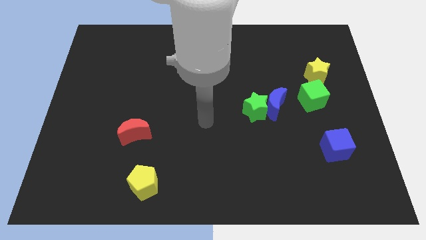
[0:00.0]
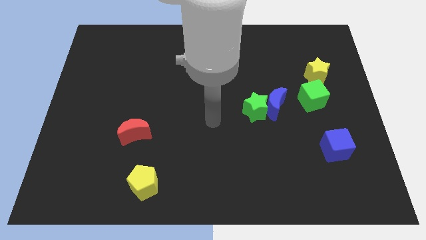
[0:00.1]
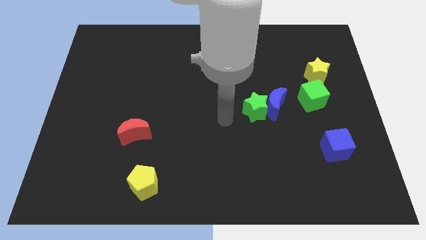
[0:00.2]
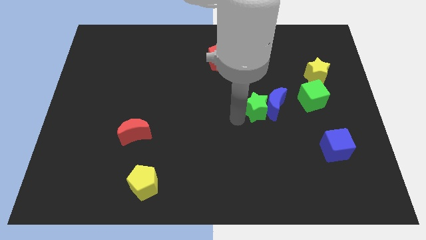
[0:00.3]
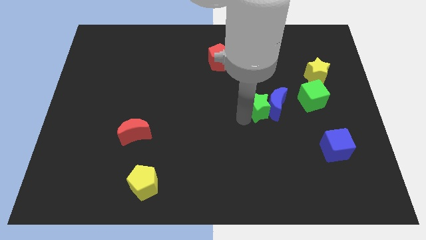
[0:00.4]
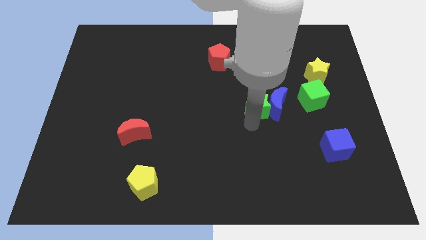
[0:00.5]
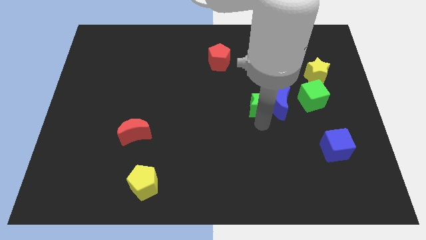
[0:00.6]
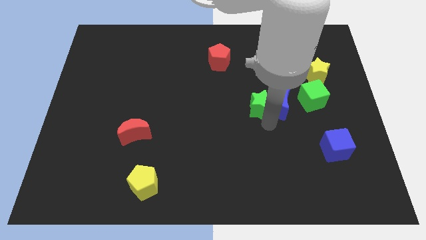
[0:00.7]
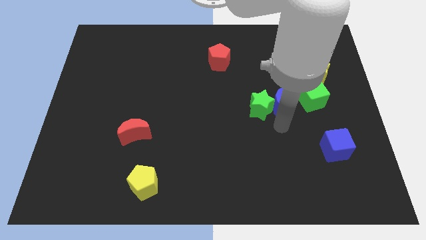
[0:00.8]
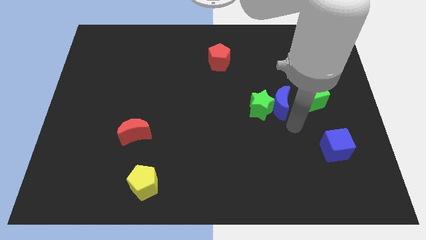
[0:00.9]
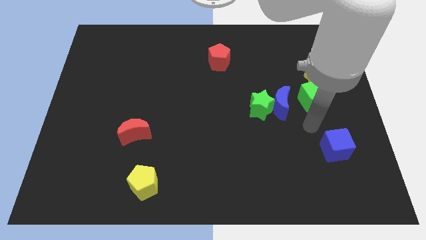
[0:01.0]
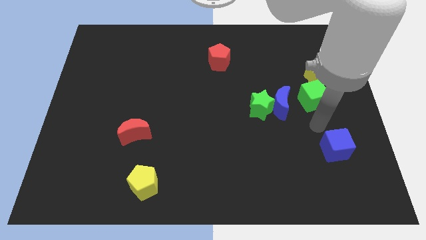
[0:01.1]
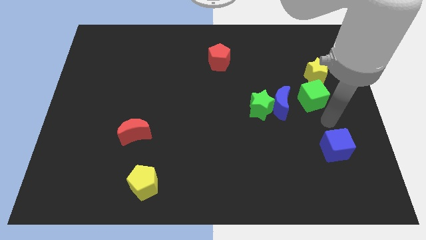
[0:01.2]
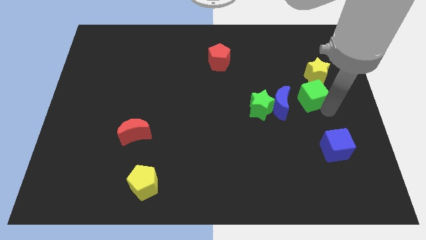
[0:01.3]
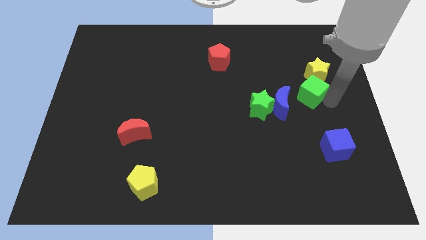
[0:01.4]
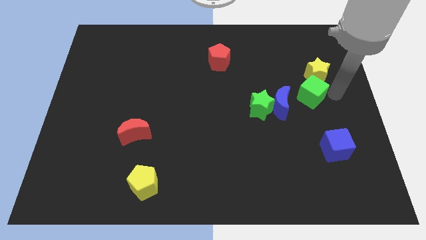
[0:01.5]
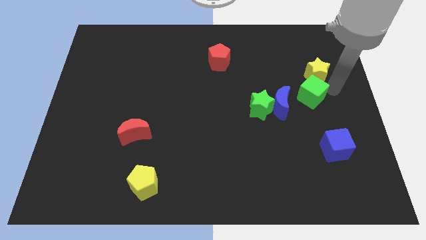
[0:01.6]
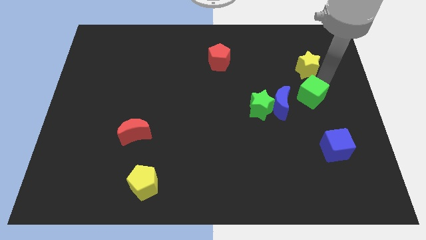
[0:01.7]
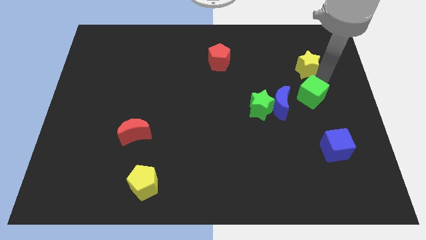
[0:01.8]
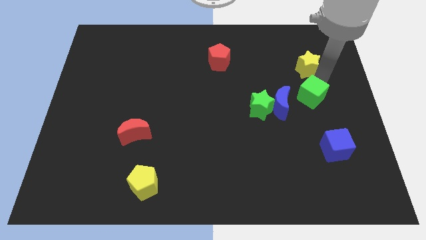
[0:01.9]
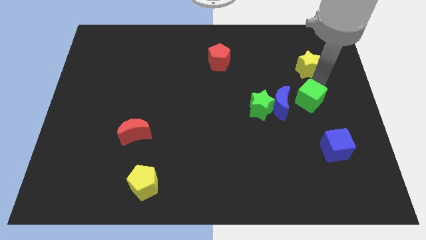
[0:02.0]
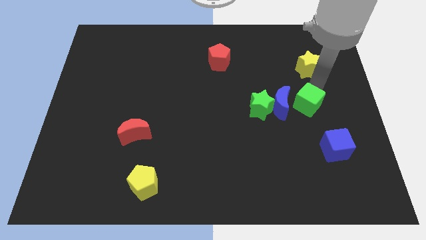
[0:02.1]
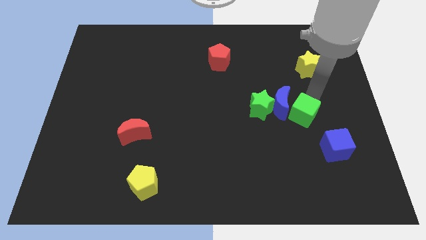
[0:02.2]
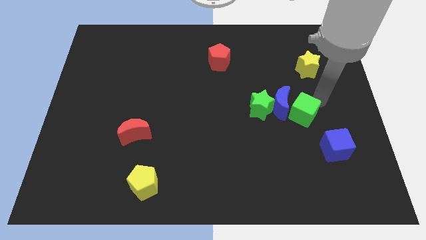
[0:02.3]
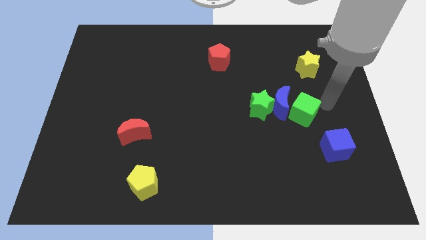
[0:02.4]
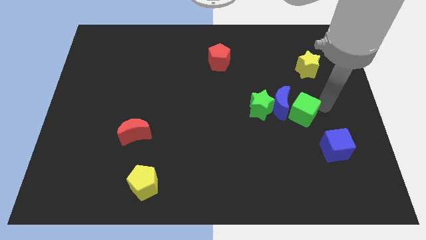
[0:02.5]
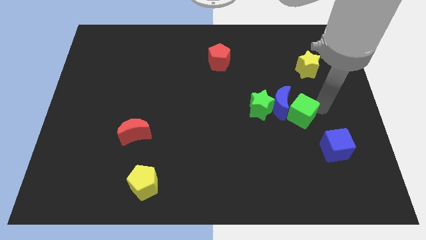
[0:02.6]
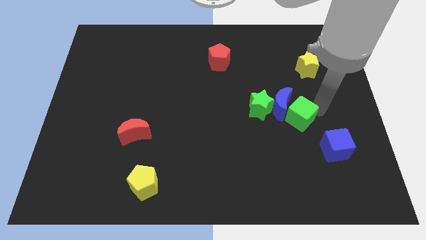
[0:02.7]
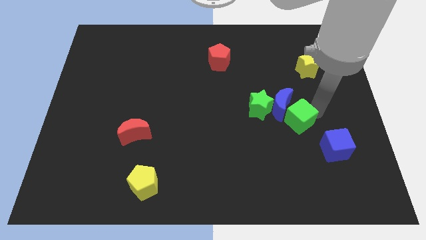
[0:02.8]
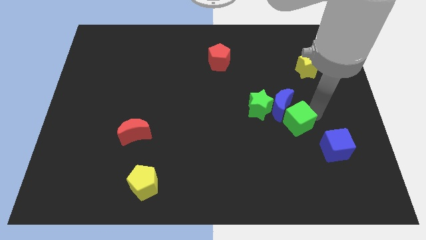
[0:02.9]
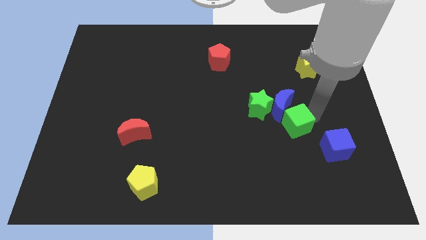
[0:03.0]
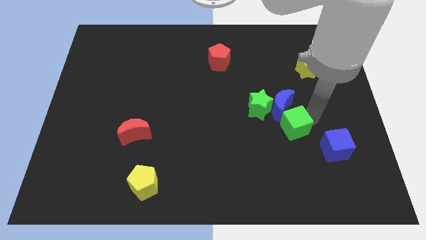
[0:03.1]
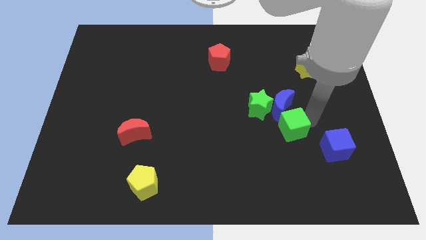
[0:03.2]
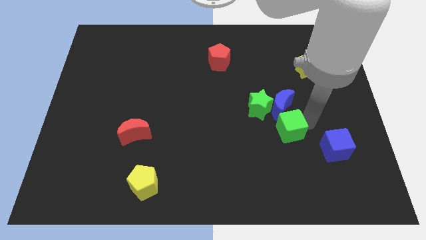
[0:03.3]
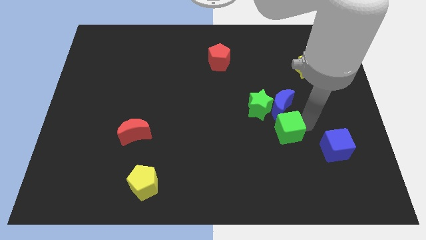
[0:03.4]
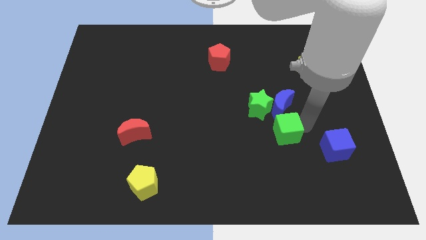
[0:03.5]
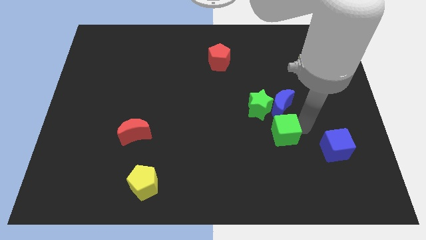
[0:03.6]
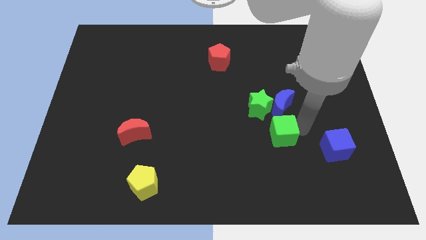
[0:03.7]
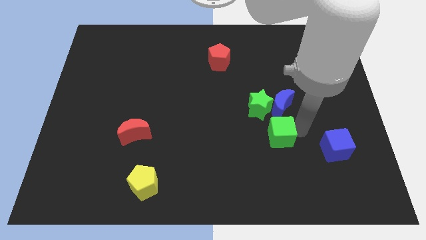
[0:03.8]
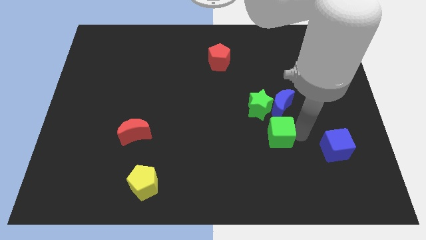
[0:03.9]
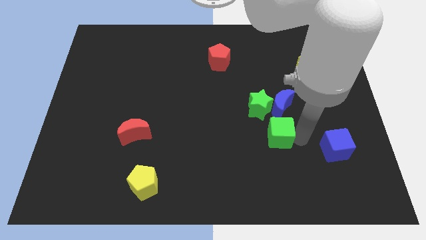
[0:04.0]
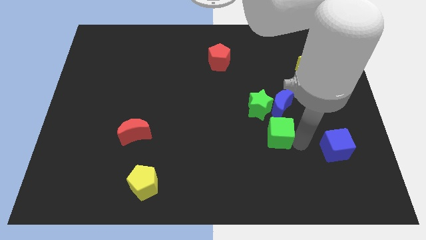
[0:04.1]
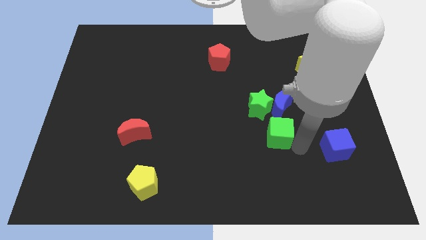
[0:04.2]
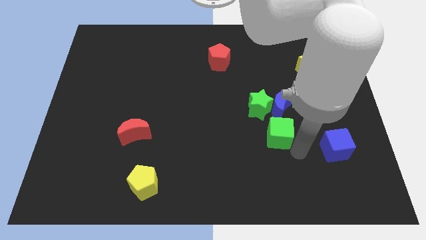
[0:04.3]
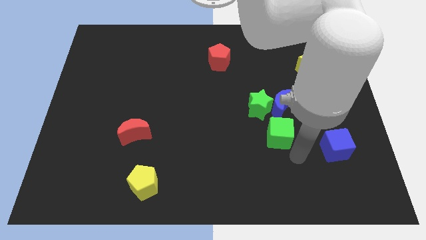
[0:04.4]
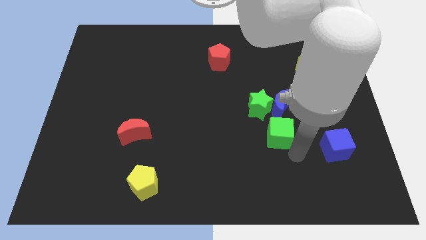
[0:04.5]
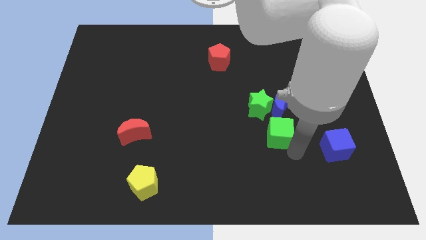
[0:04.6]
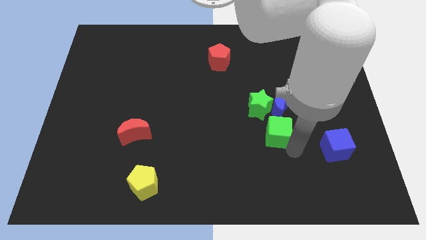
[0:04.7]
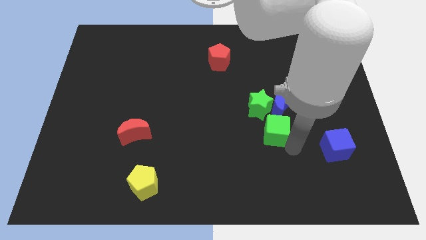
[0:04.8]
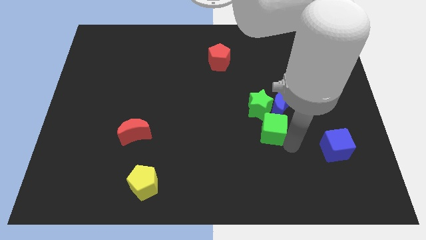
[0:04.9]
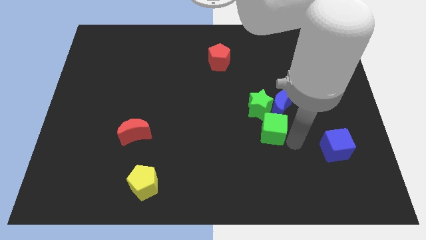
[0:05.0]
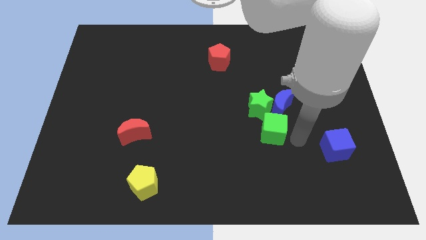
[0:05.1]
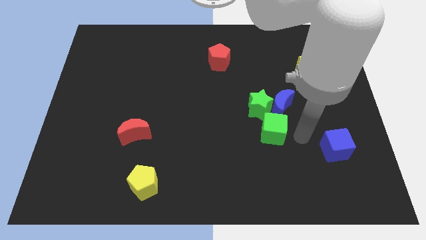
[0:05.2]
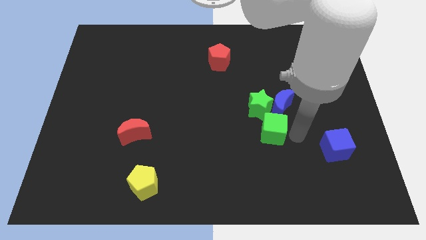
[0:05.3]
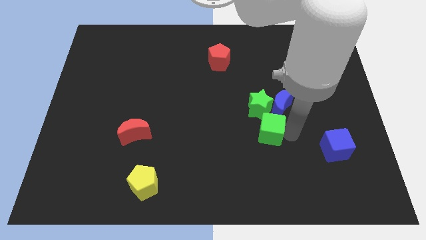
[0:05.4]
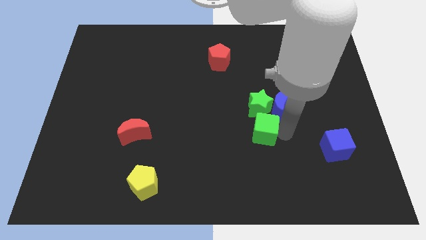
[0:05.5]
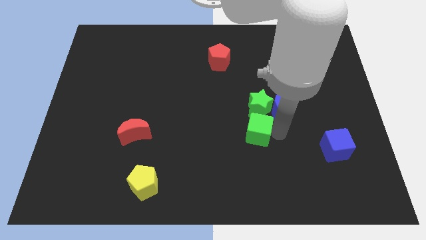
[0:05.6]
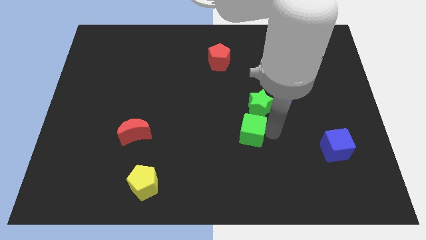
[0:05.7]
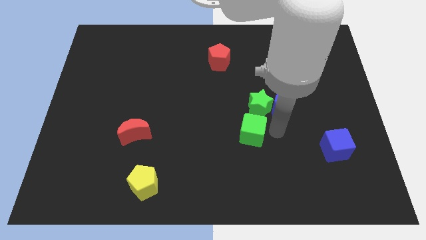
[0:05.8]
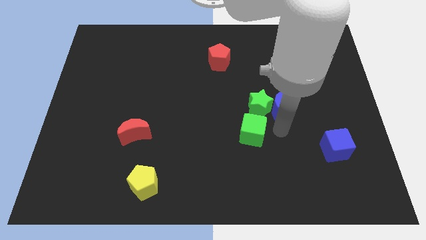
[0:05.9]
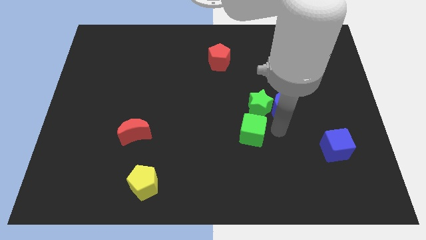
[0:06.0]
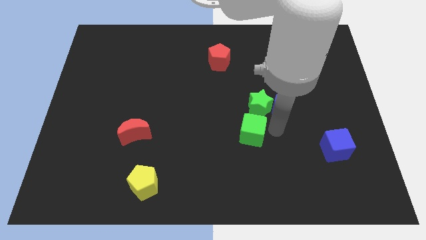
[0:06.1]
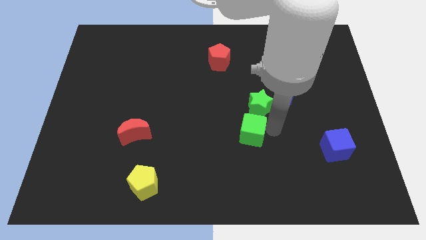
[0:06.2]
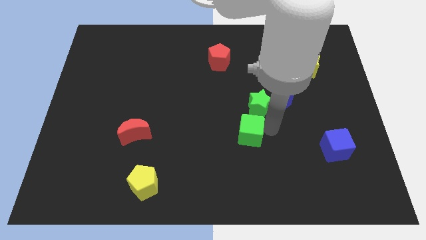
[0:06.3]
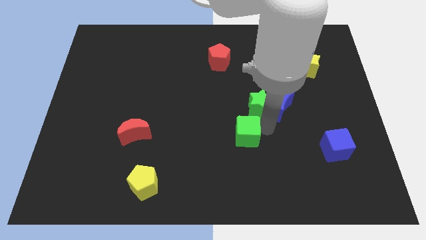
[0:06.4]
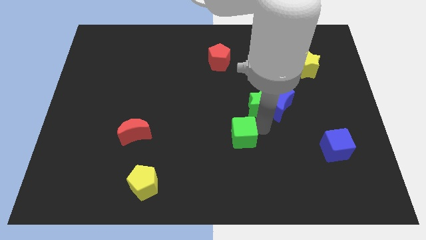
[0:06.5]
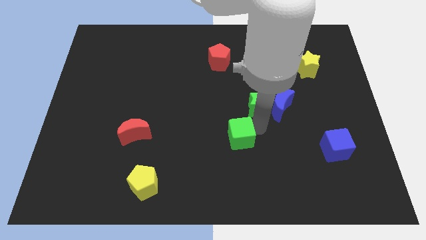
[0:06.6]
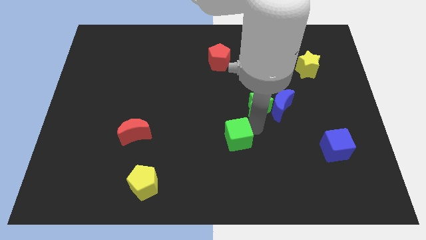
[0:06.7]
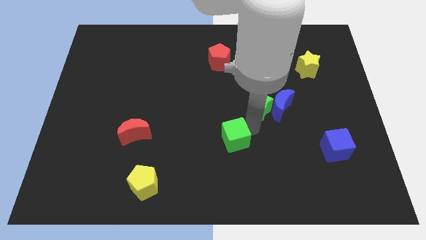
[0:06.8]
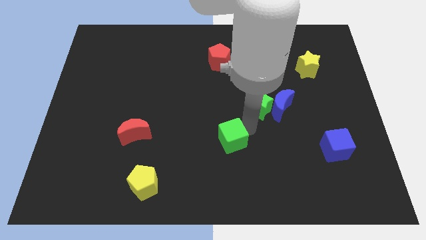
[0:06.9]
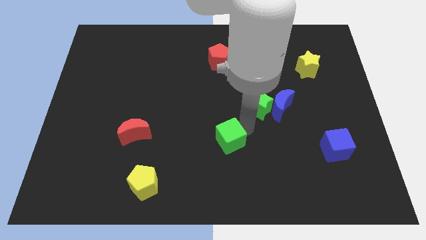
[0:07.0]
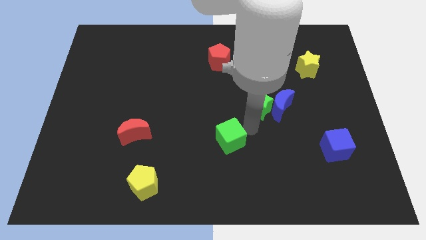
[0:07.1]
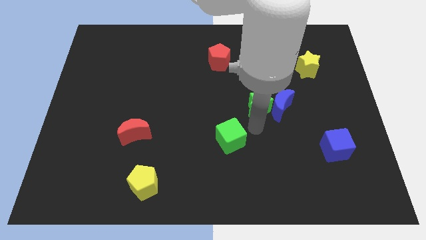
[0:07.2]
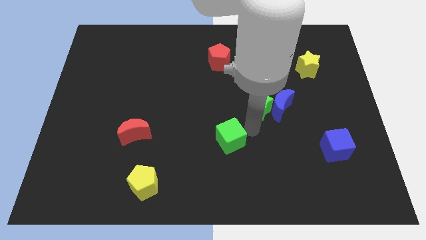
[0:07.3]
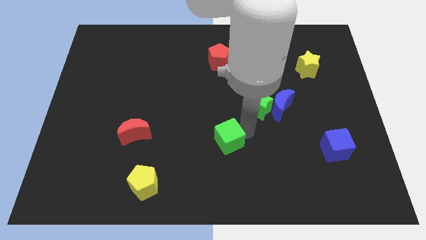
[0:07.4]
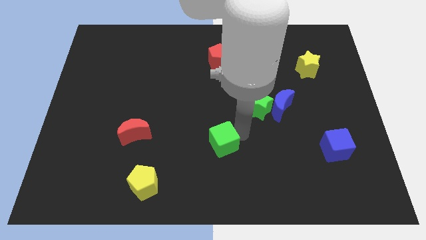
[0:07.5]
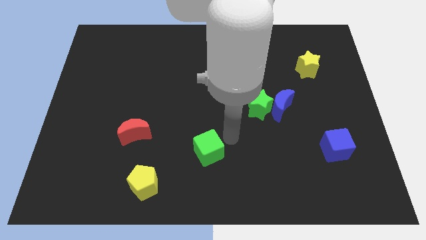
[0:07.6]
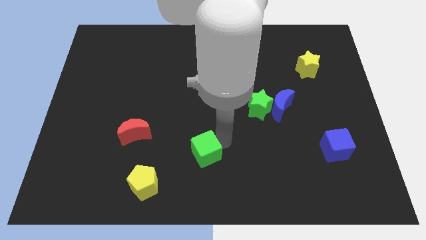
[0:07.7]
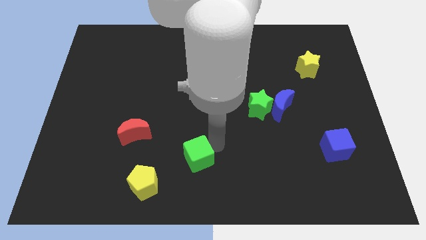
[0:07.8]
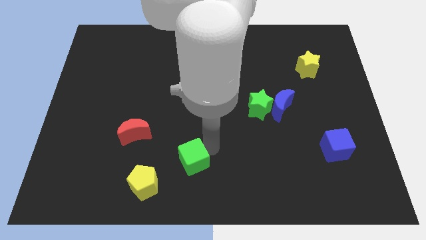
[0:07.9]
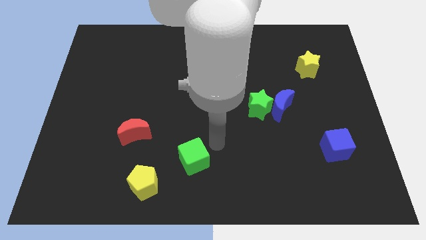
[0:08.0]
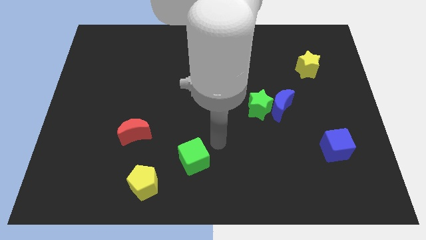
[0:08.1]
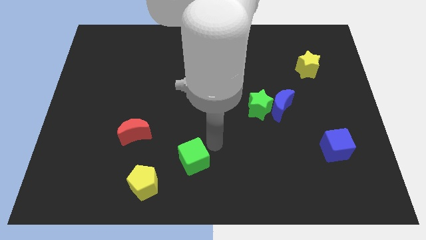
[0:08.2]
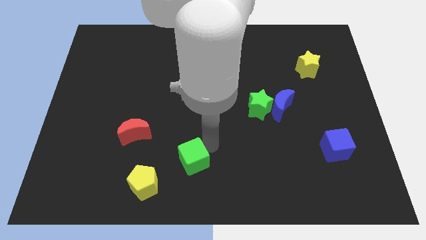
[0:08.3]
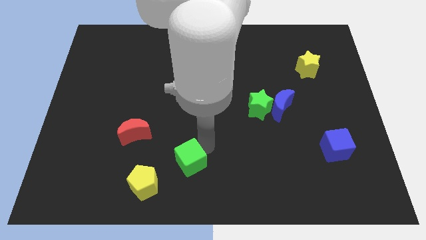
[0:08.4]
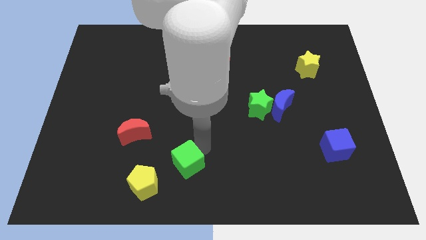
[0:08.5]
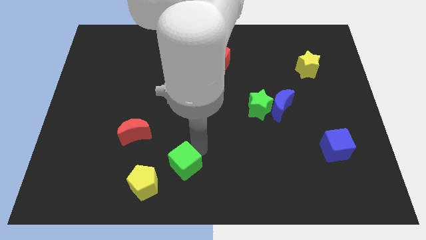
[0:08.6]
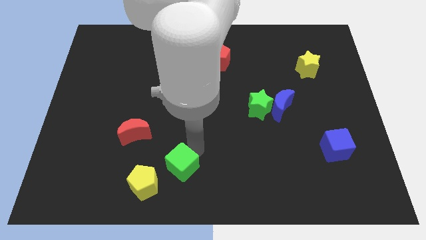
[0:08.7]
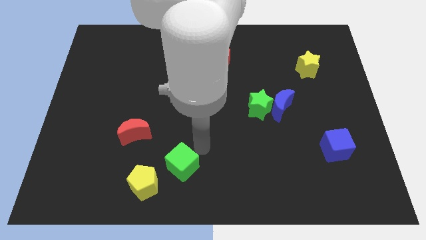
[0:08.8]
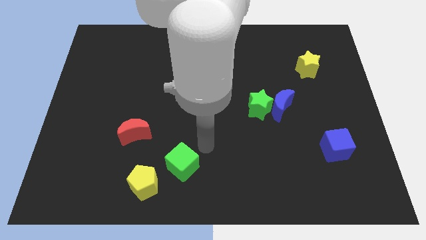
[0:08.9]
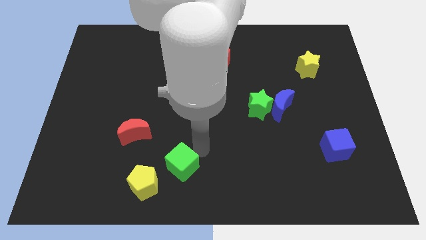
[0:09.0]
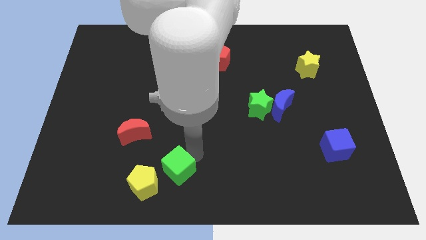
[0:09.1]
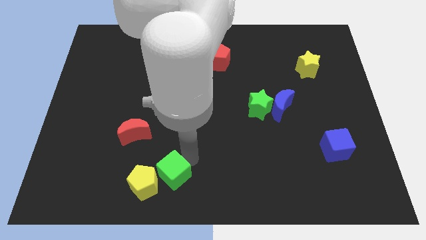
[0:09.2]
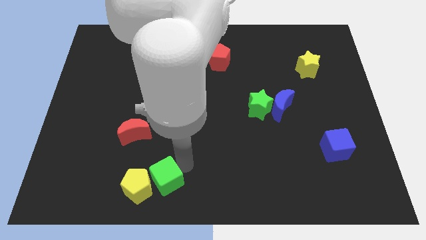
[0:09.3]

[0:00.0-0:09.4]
push the green cube towards the yellow pentagon
